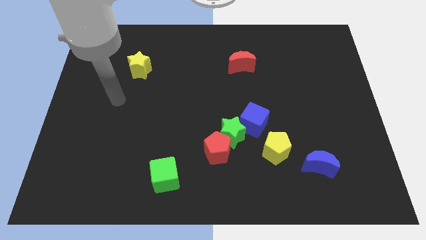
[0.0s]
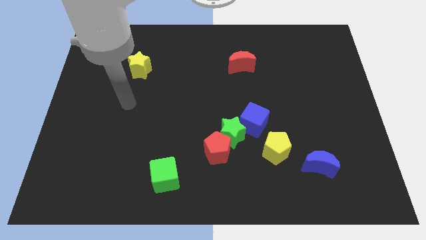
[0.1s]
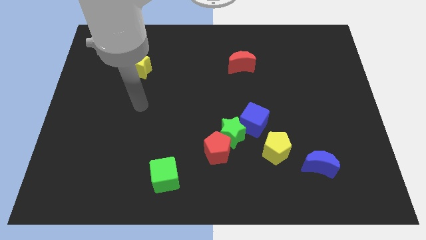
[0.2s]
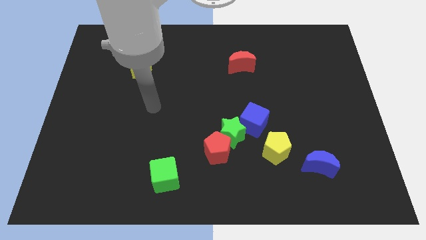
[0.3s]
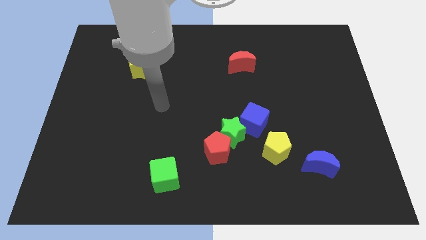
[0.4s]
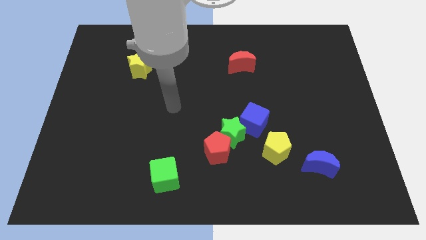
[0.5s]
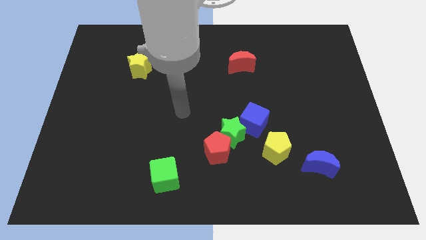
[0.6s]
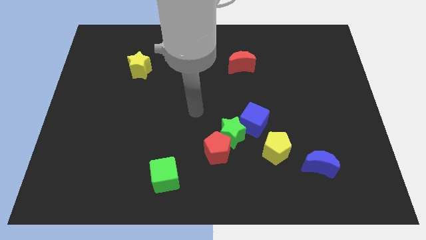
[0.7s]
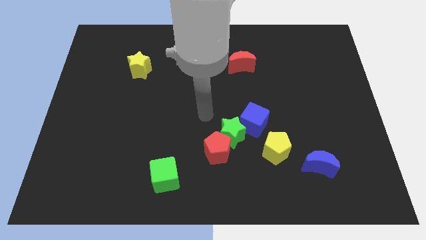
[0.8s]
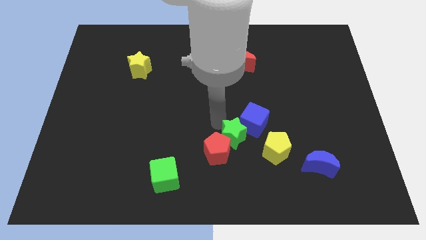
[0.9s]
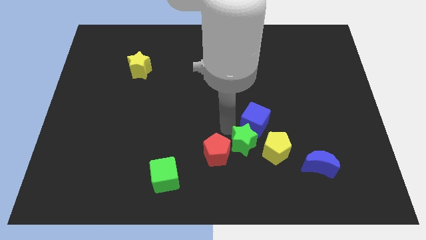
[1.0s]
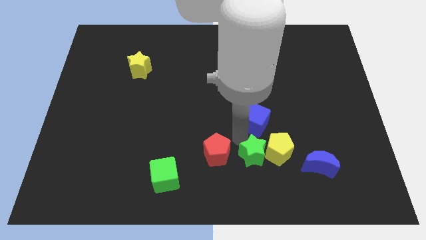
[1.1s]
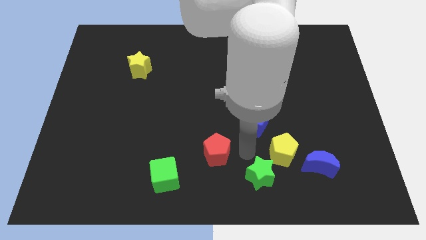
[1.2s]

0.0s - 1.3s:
separate the red pentagon from the green star

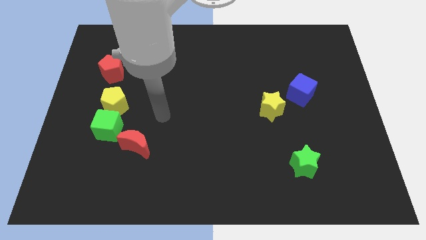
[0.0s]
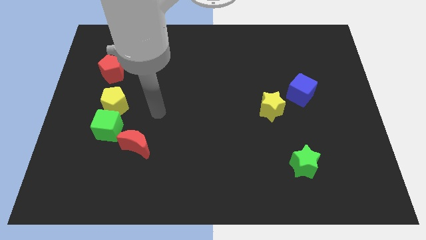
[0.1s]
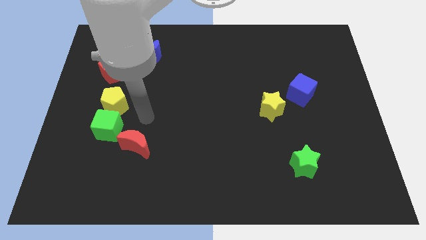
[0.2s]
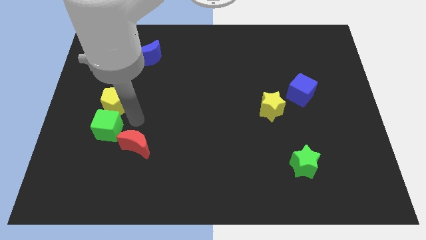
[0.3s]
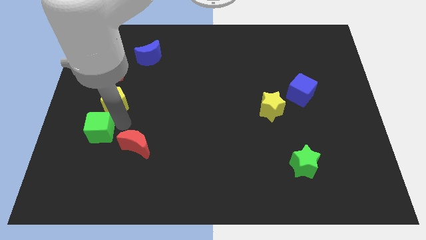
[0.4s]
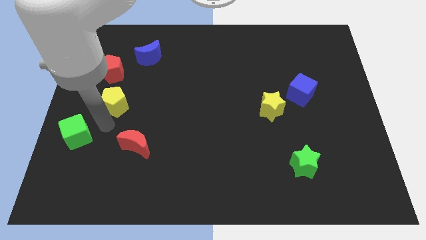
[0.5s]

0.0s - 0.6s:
separate the yellow pentagon from the green cube

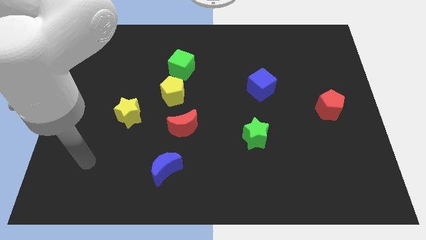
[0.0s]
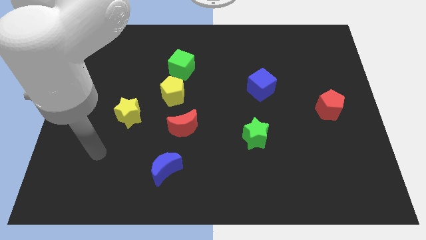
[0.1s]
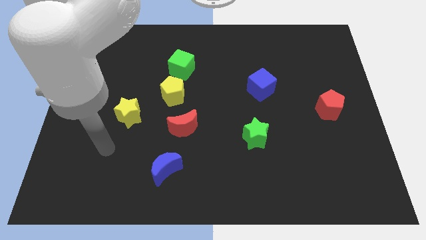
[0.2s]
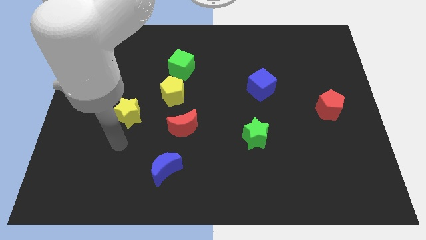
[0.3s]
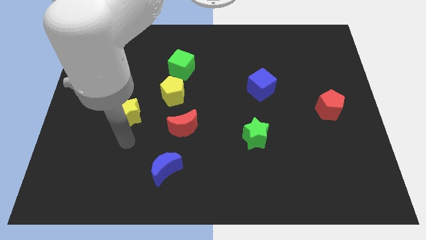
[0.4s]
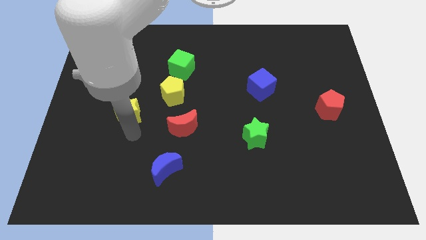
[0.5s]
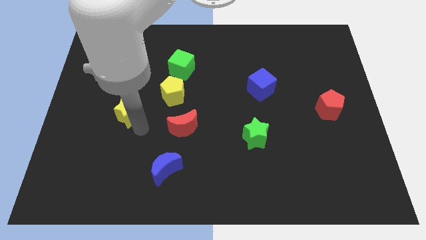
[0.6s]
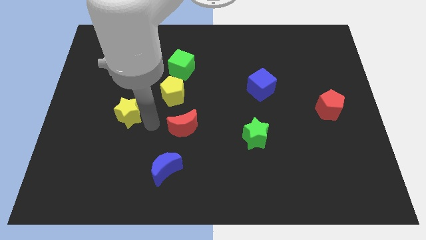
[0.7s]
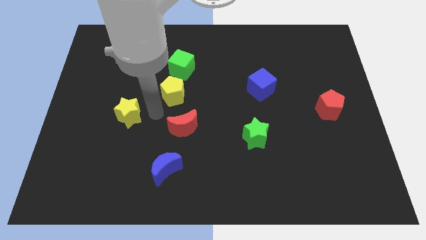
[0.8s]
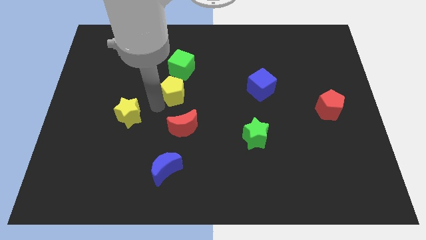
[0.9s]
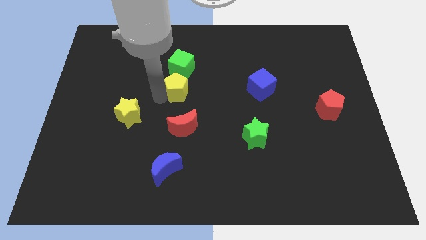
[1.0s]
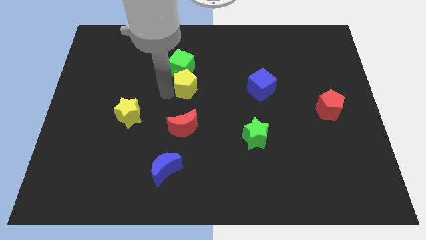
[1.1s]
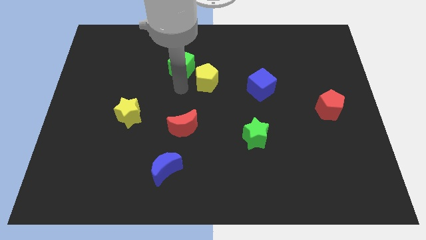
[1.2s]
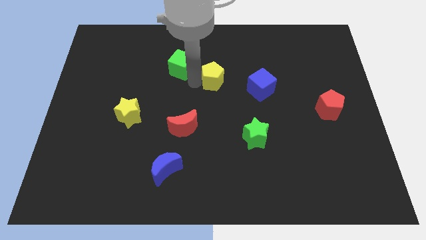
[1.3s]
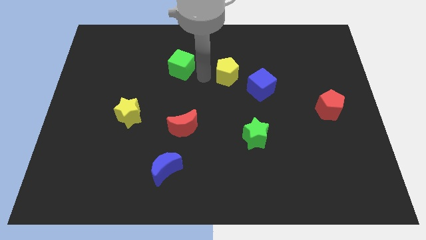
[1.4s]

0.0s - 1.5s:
pull the green cube apart from the yellow pentagon

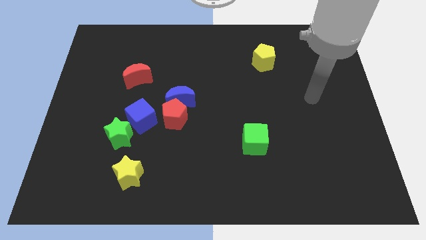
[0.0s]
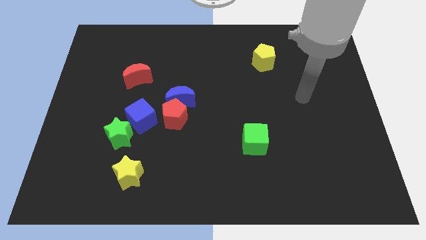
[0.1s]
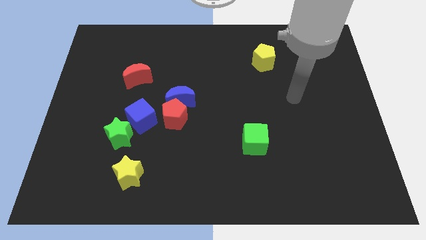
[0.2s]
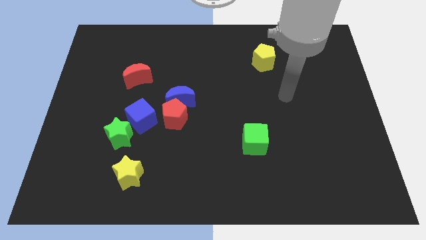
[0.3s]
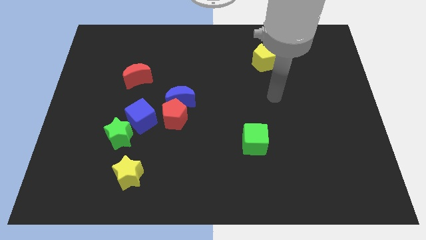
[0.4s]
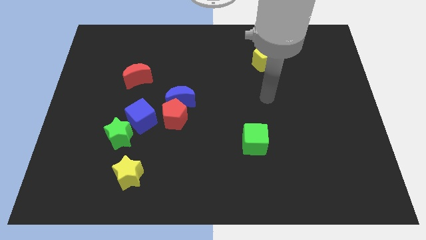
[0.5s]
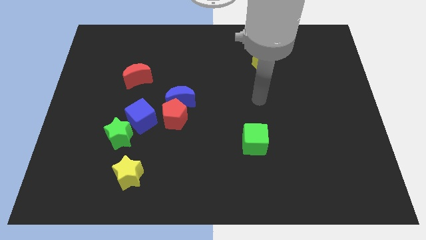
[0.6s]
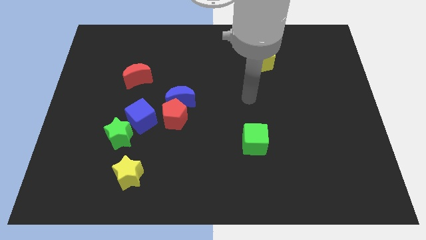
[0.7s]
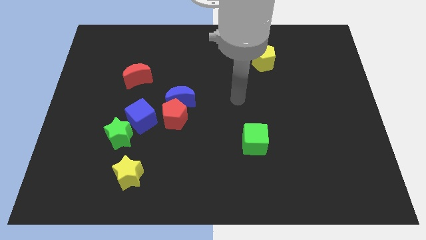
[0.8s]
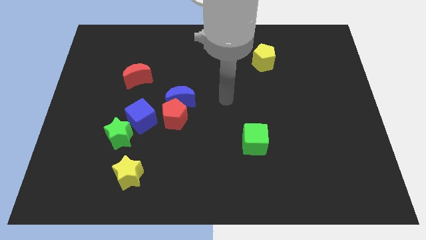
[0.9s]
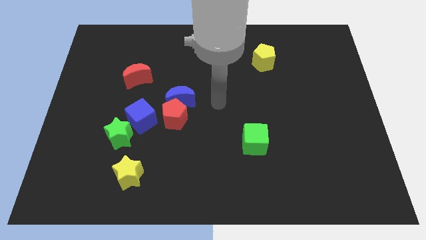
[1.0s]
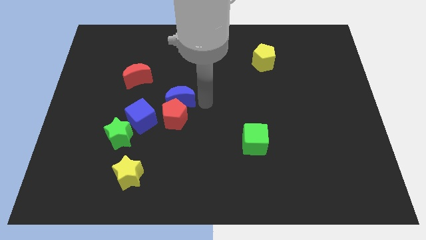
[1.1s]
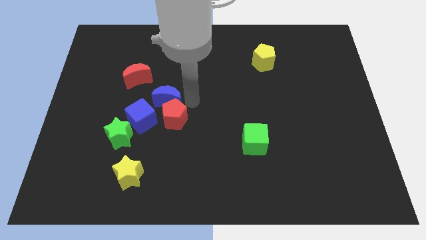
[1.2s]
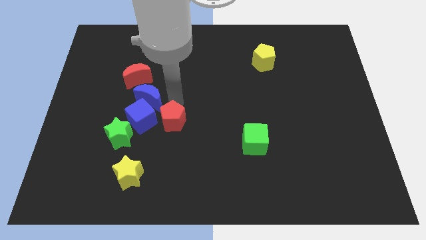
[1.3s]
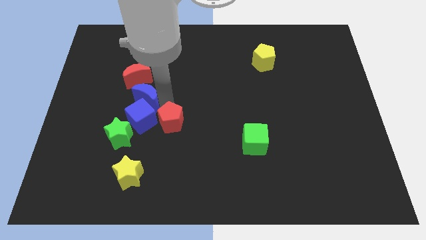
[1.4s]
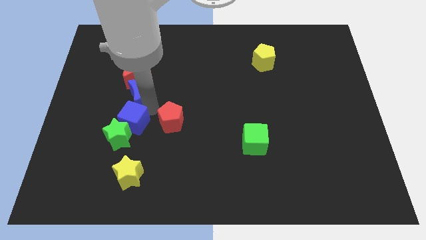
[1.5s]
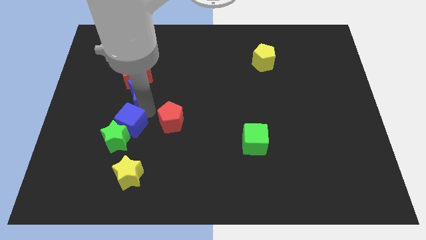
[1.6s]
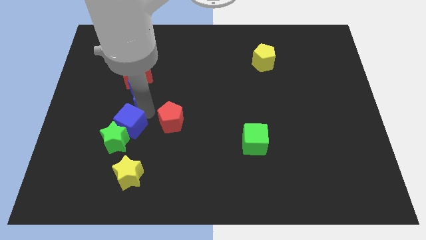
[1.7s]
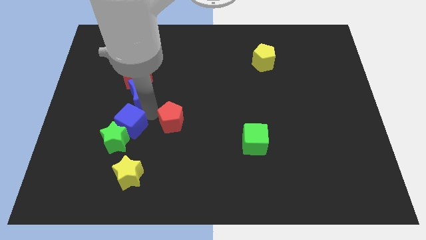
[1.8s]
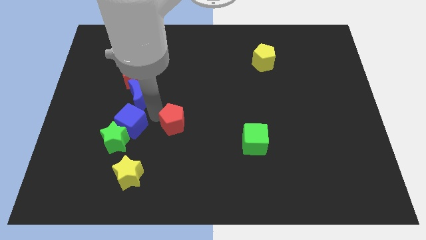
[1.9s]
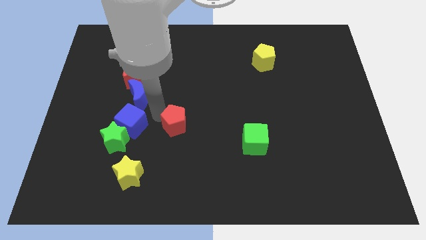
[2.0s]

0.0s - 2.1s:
move the red pentagon away from the blue moon and blue cube

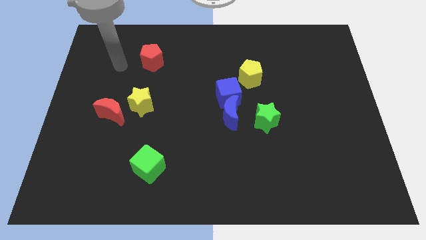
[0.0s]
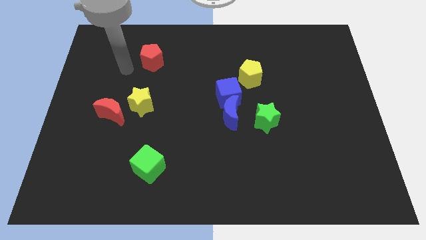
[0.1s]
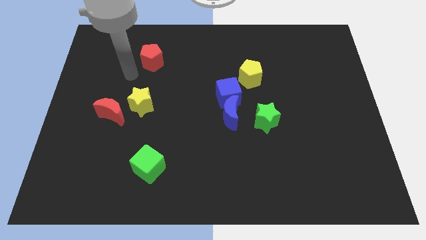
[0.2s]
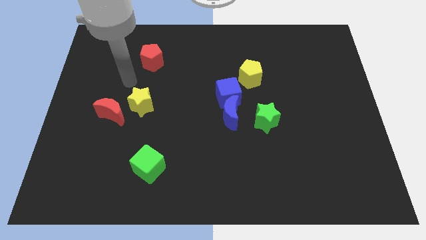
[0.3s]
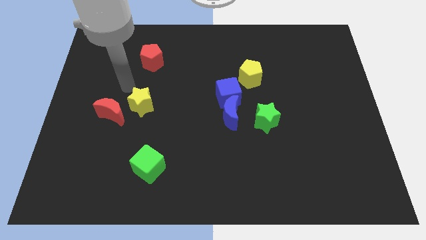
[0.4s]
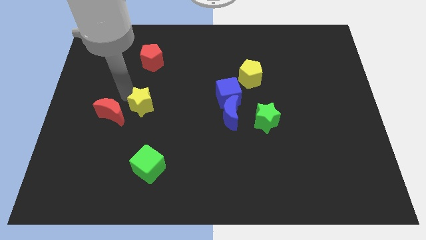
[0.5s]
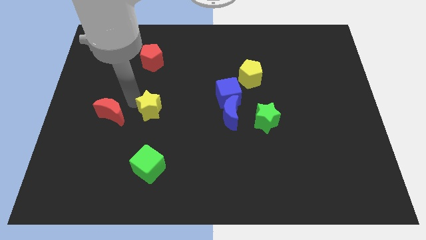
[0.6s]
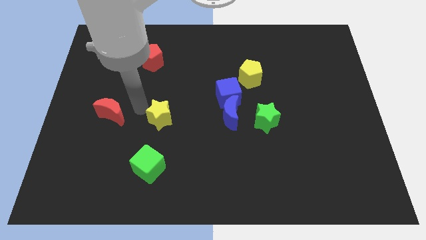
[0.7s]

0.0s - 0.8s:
pull the red moon apart from the yellow star

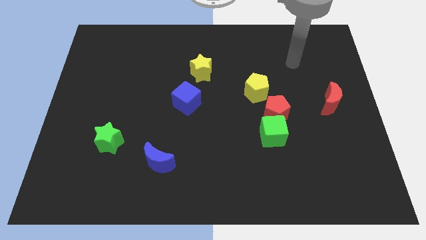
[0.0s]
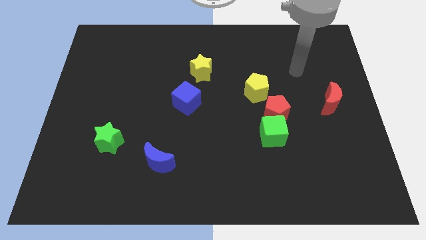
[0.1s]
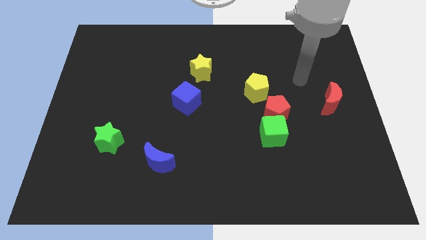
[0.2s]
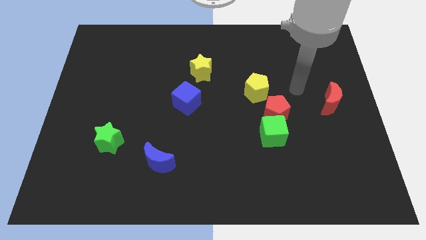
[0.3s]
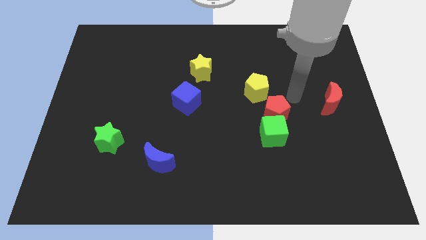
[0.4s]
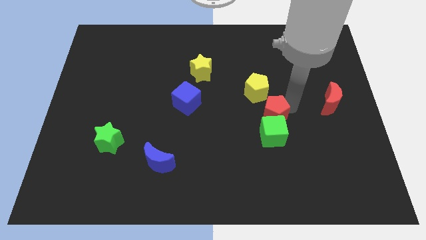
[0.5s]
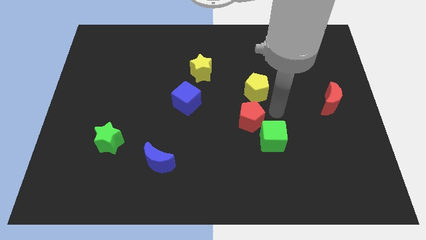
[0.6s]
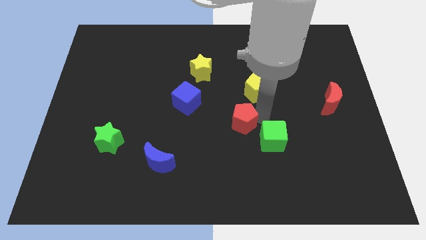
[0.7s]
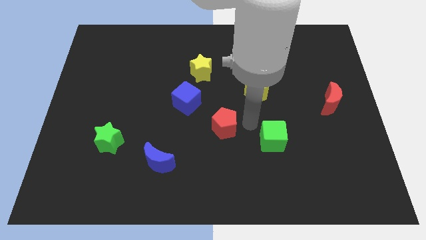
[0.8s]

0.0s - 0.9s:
separate the green cube from the red pentagon

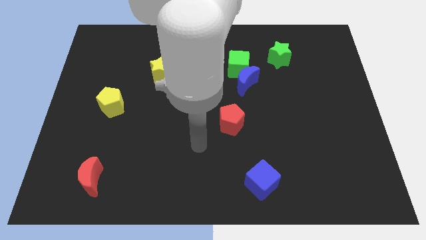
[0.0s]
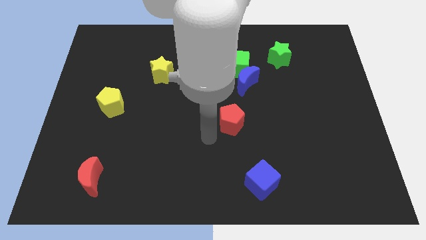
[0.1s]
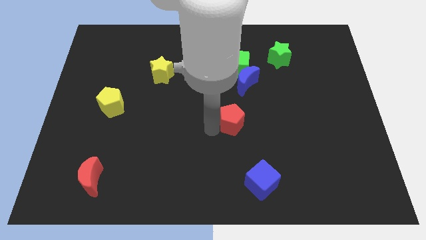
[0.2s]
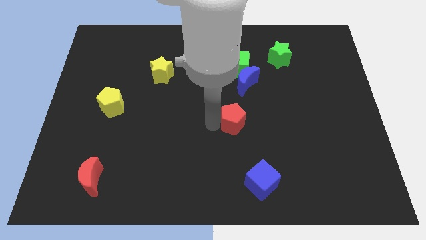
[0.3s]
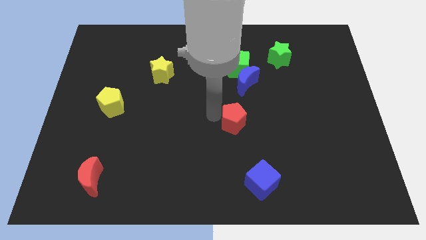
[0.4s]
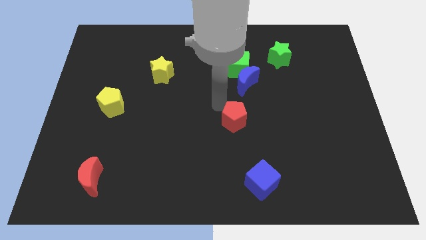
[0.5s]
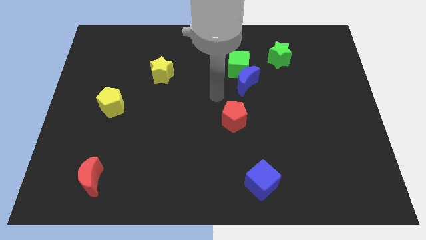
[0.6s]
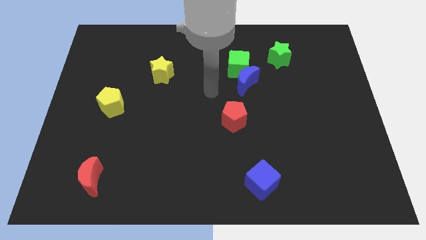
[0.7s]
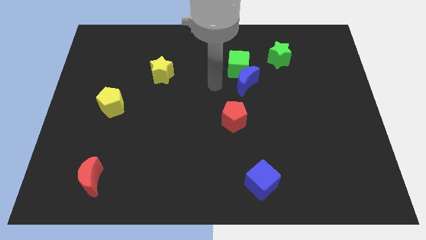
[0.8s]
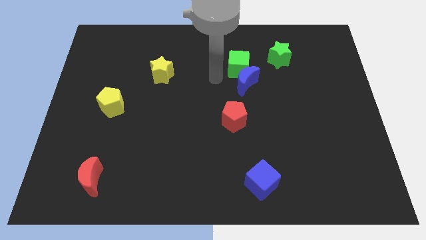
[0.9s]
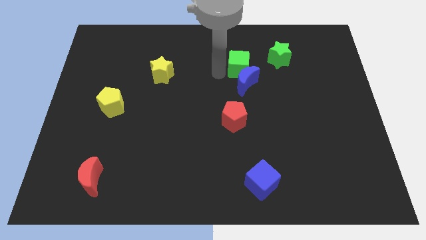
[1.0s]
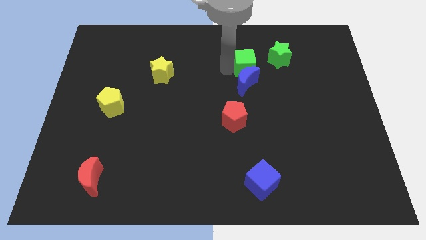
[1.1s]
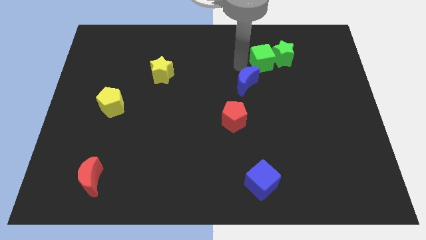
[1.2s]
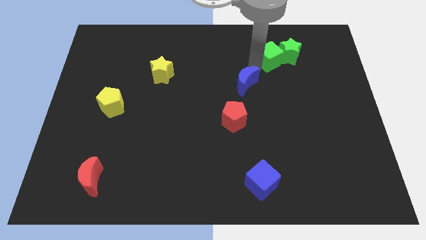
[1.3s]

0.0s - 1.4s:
pull the blue moon apart from the green cube

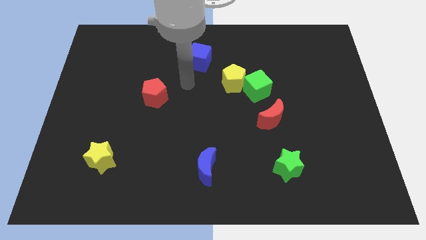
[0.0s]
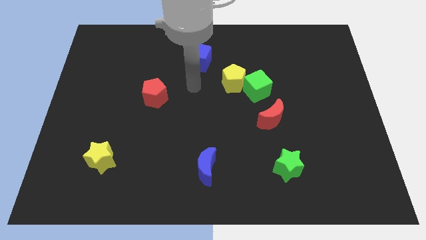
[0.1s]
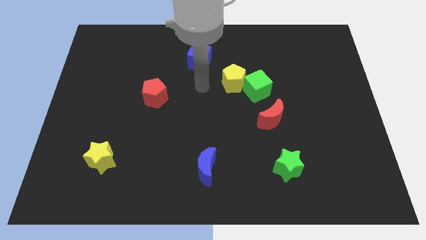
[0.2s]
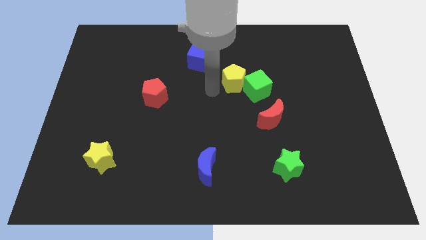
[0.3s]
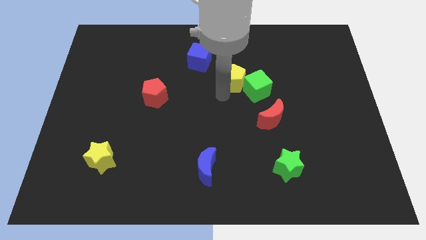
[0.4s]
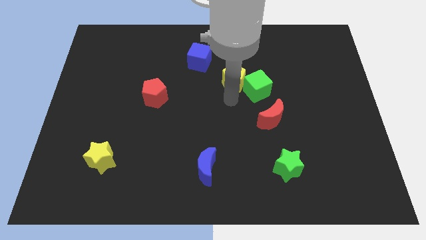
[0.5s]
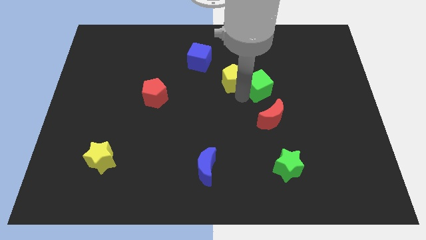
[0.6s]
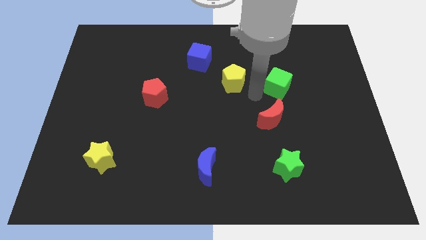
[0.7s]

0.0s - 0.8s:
pull the yellow pentagon apart from the green cube

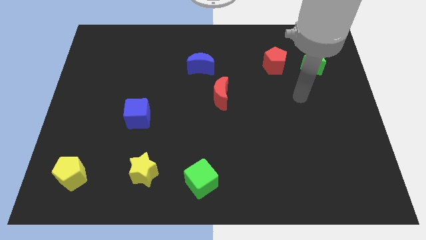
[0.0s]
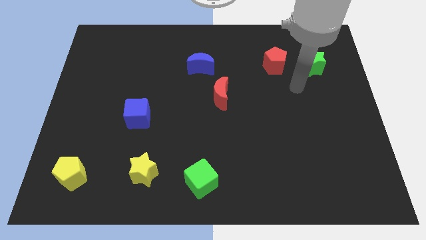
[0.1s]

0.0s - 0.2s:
pull the red pentagon apart from the green star
